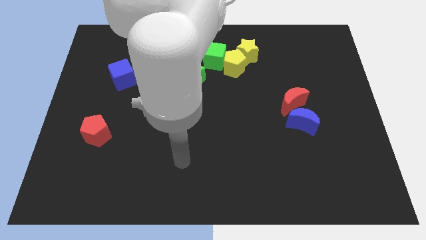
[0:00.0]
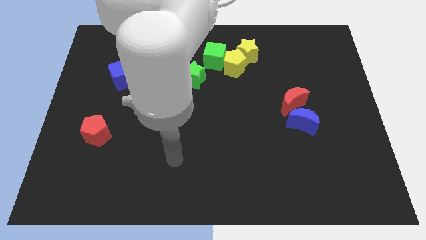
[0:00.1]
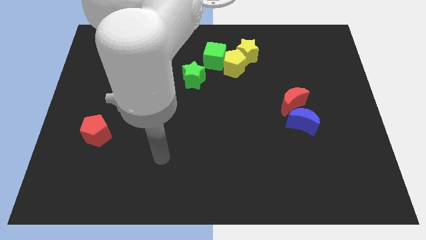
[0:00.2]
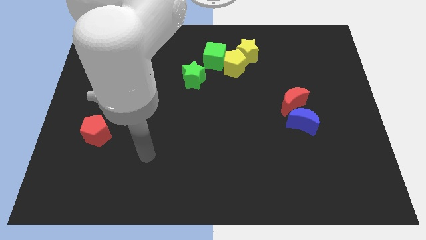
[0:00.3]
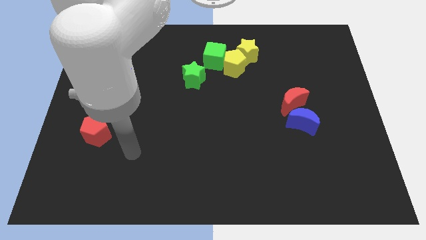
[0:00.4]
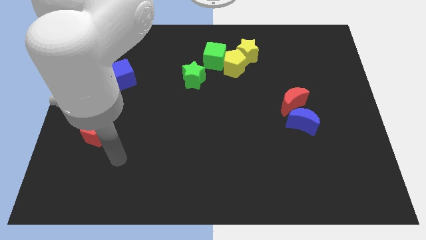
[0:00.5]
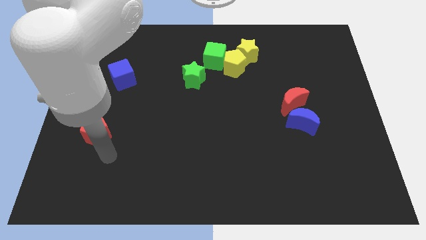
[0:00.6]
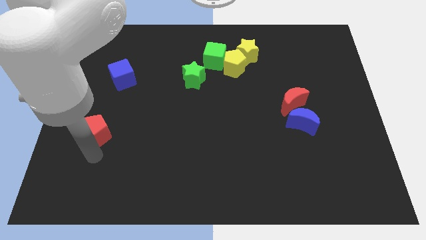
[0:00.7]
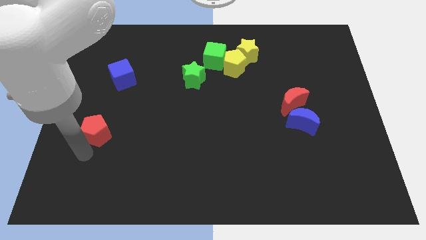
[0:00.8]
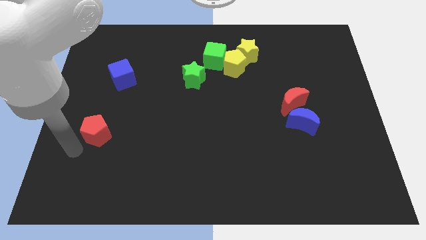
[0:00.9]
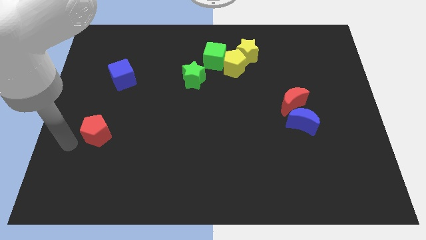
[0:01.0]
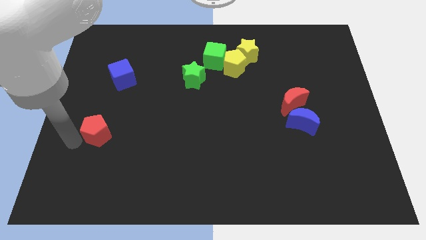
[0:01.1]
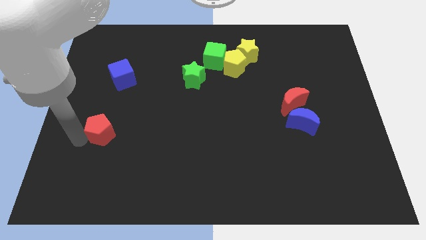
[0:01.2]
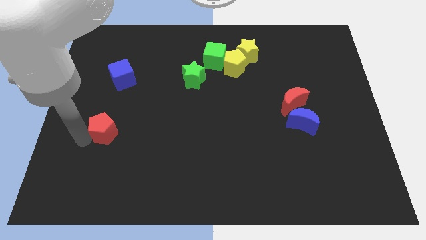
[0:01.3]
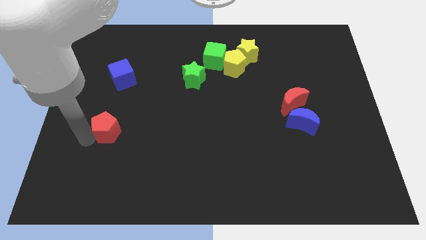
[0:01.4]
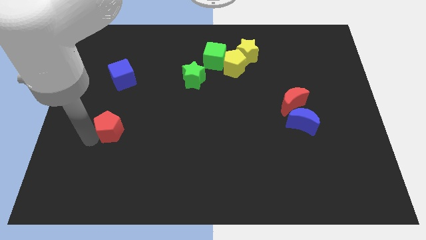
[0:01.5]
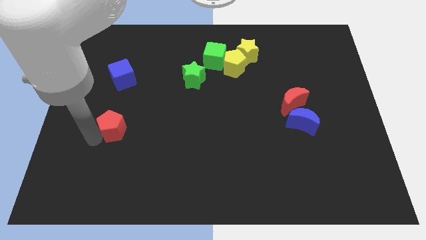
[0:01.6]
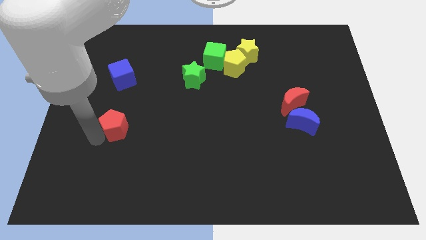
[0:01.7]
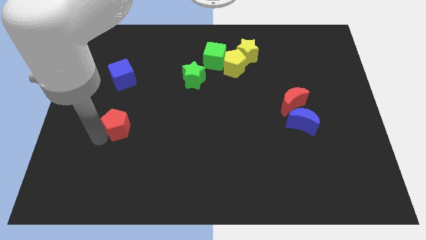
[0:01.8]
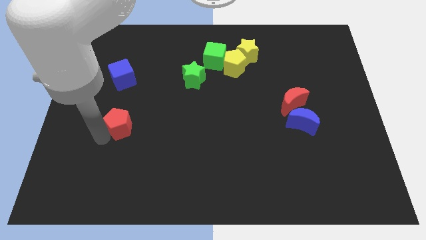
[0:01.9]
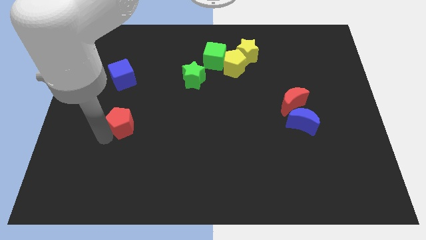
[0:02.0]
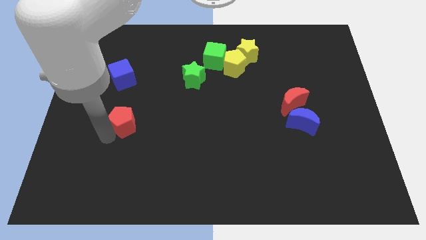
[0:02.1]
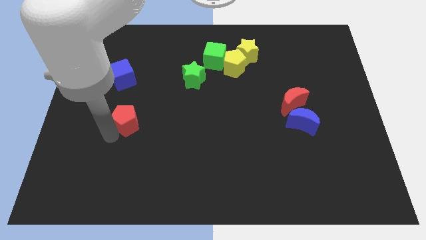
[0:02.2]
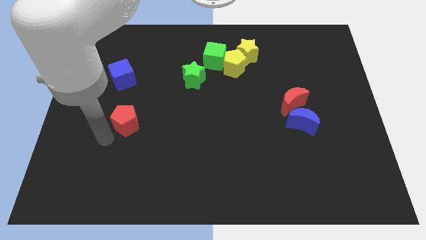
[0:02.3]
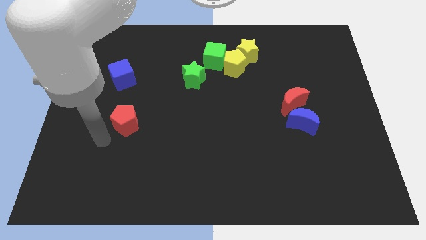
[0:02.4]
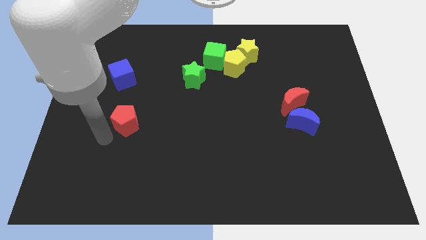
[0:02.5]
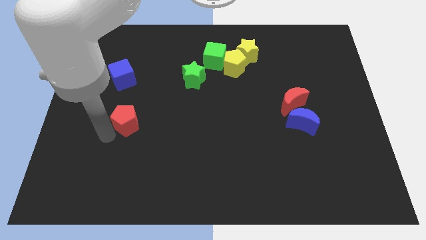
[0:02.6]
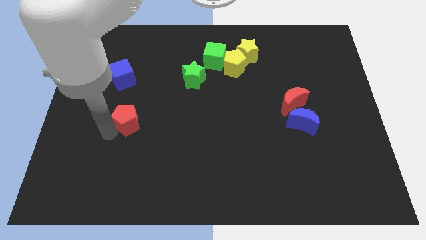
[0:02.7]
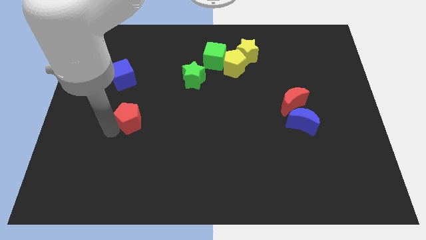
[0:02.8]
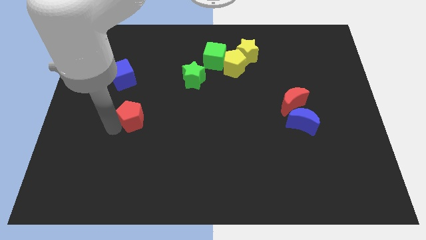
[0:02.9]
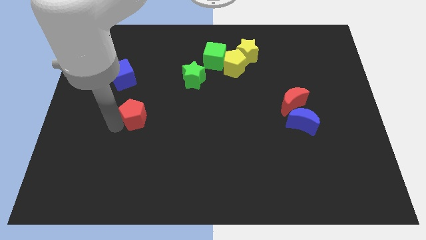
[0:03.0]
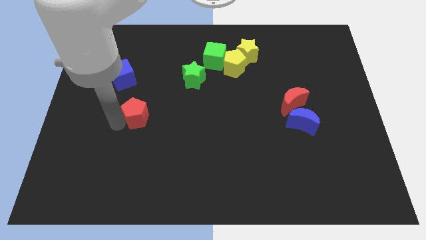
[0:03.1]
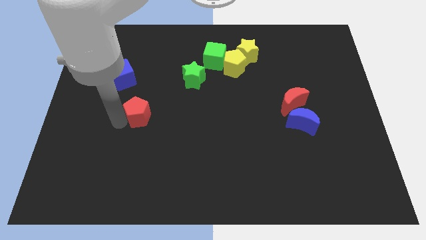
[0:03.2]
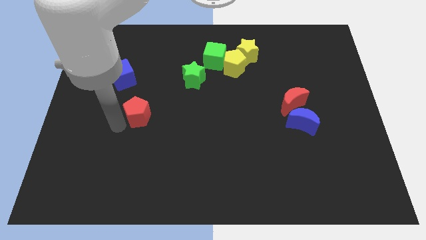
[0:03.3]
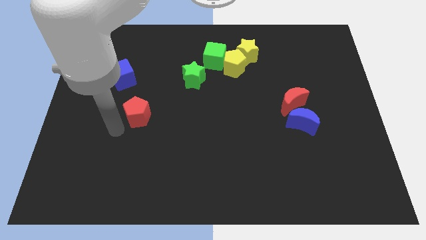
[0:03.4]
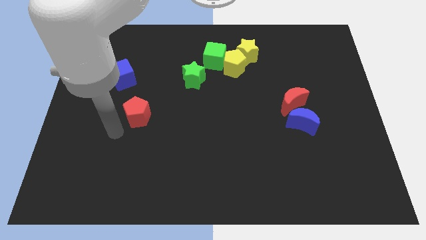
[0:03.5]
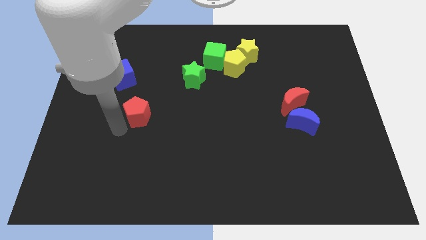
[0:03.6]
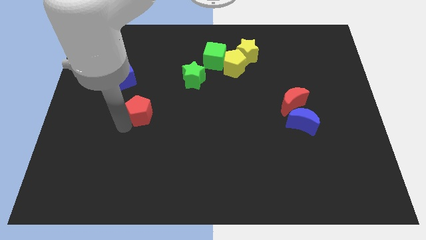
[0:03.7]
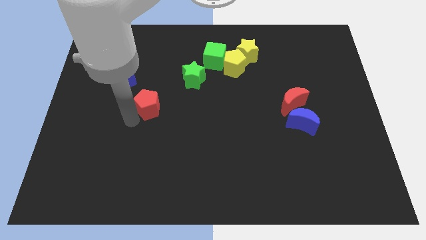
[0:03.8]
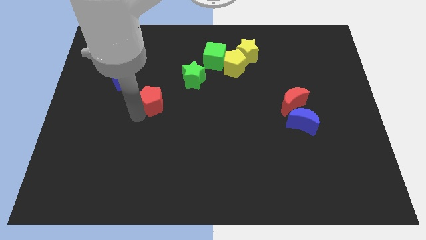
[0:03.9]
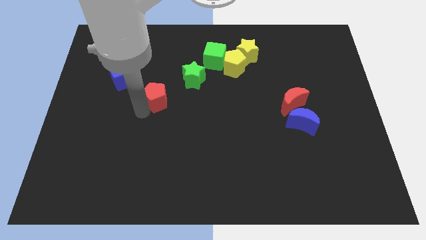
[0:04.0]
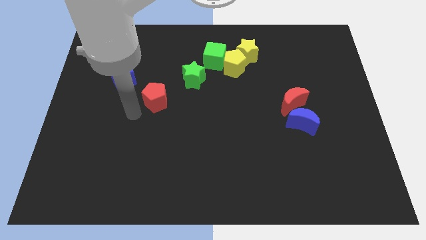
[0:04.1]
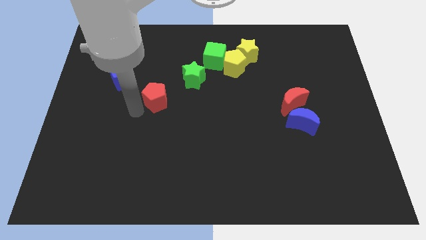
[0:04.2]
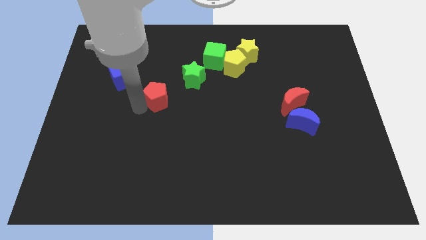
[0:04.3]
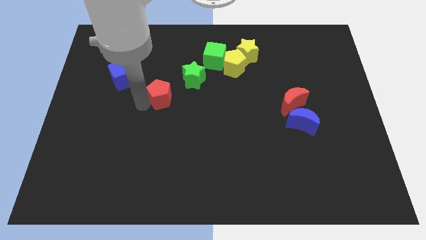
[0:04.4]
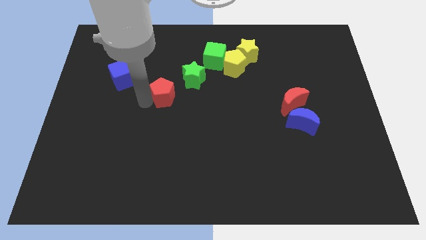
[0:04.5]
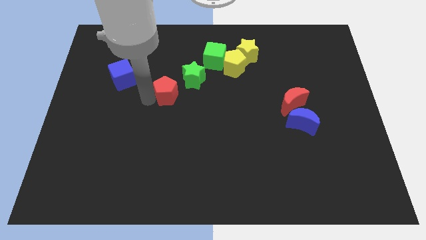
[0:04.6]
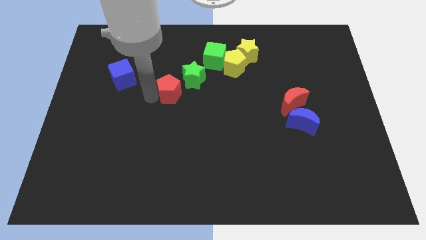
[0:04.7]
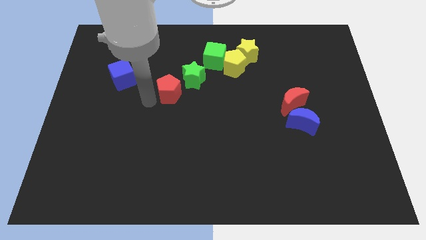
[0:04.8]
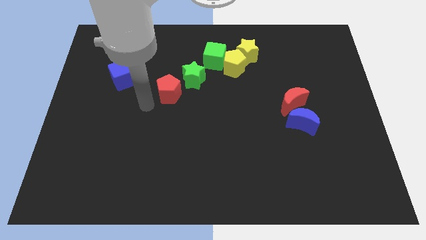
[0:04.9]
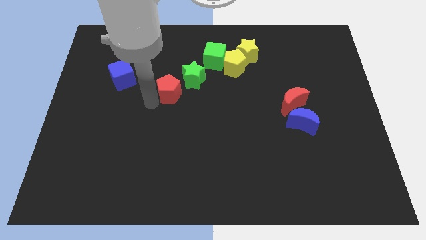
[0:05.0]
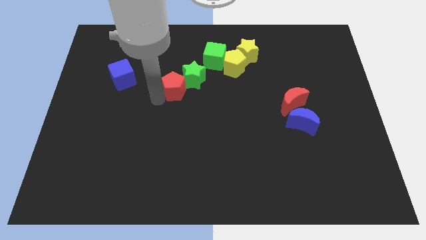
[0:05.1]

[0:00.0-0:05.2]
put the red pentagon towards the green star

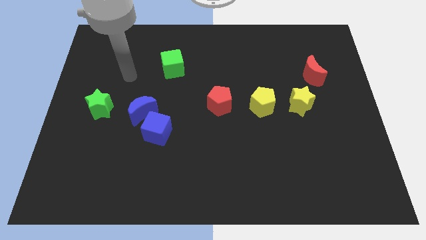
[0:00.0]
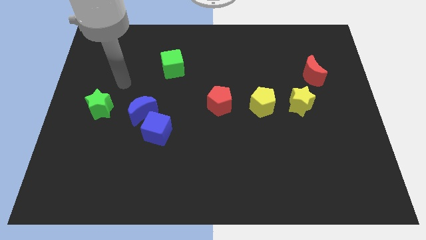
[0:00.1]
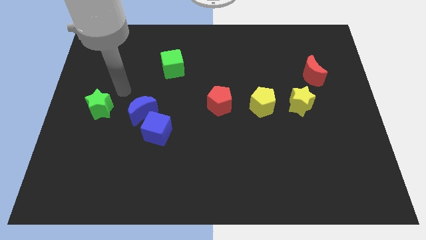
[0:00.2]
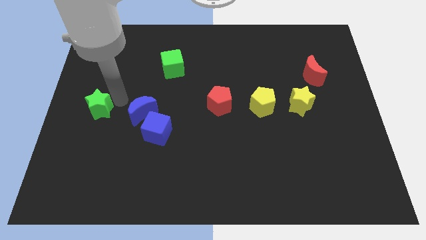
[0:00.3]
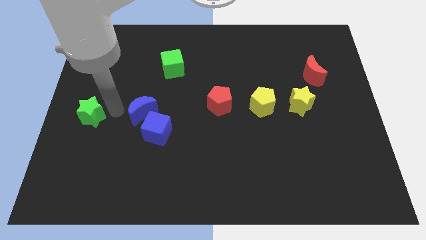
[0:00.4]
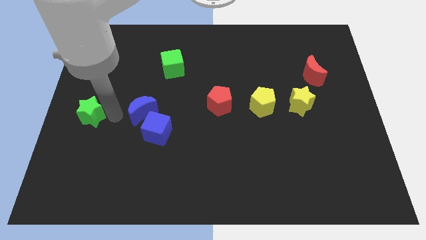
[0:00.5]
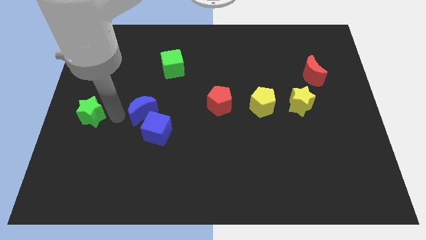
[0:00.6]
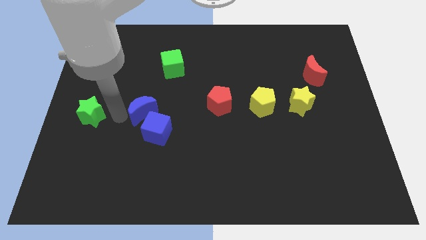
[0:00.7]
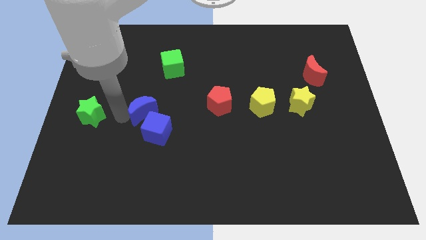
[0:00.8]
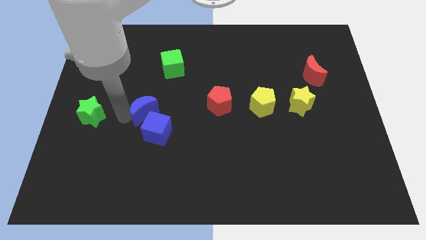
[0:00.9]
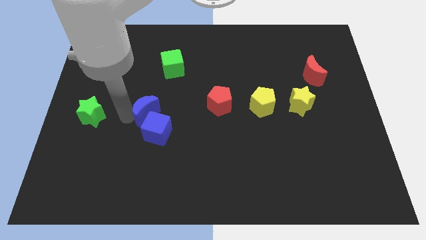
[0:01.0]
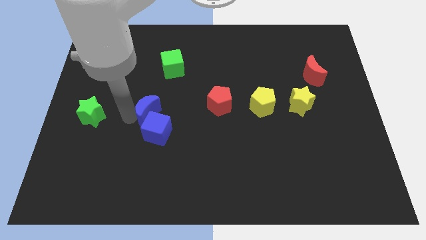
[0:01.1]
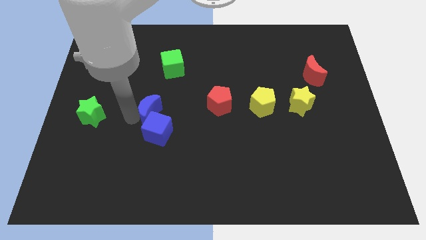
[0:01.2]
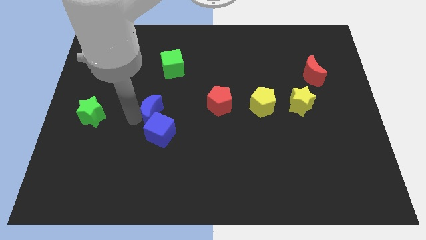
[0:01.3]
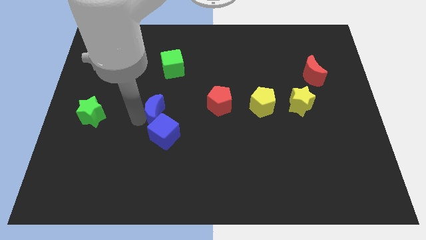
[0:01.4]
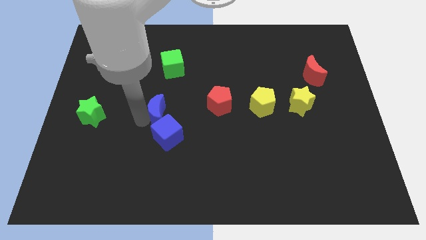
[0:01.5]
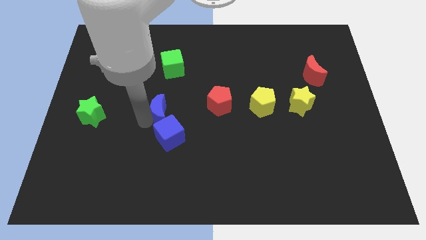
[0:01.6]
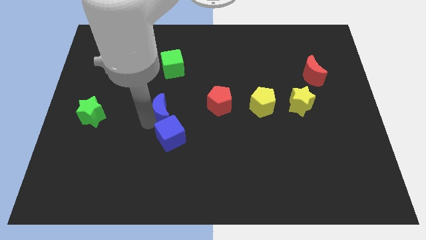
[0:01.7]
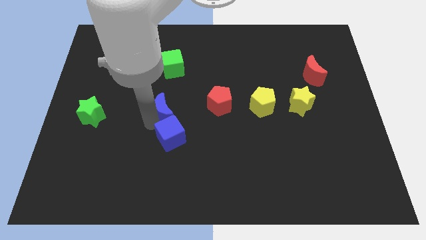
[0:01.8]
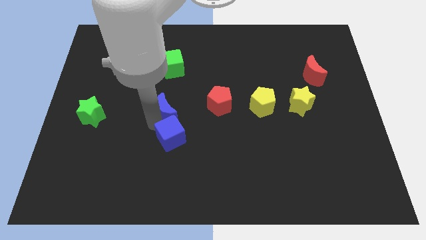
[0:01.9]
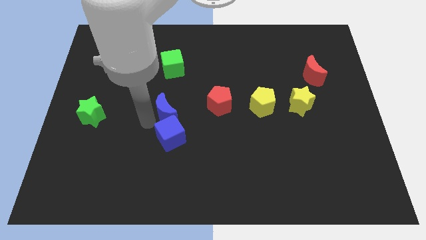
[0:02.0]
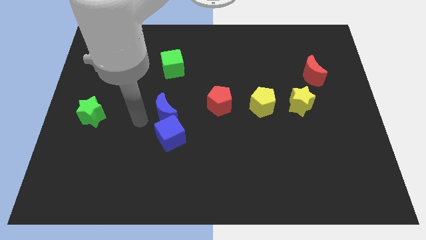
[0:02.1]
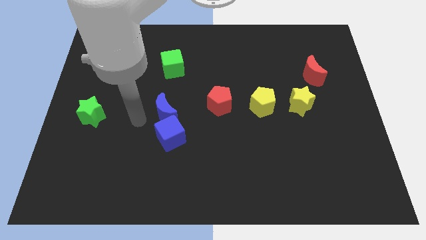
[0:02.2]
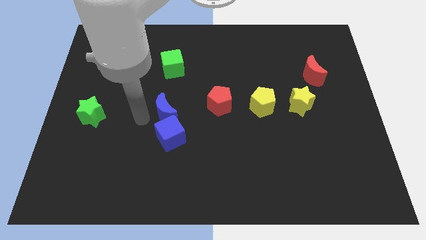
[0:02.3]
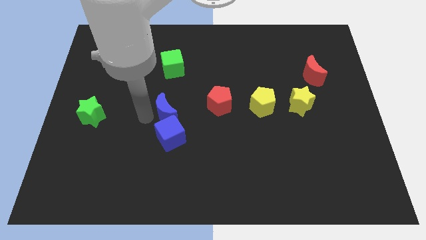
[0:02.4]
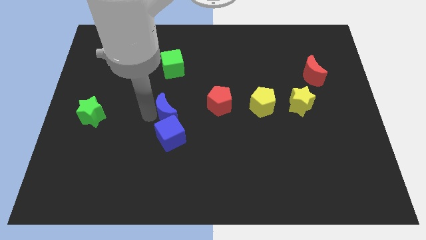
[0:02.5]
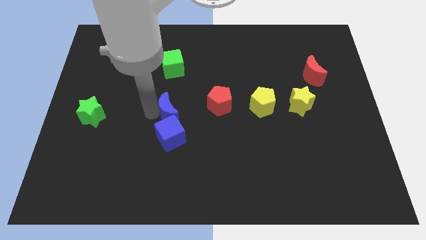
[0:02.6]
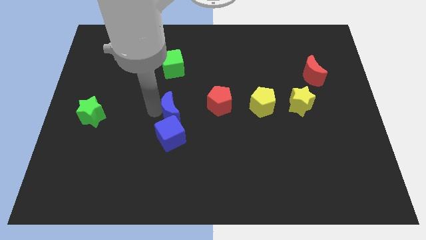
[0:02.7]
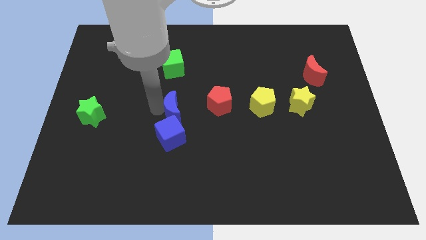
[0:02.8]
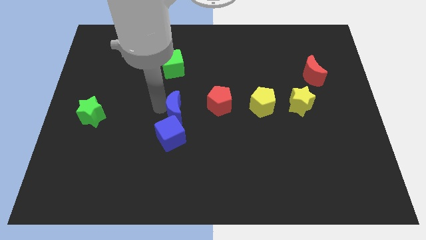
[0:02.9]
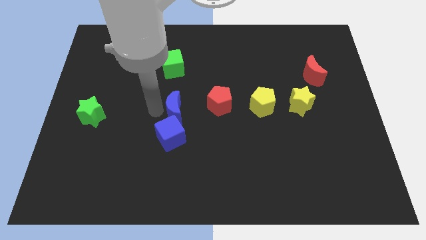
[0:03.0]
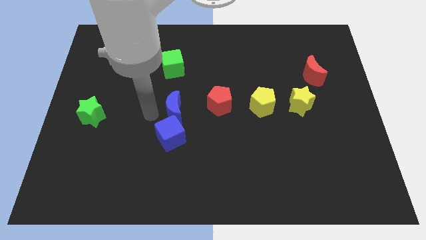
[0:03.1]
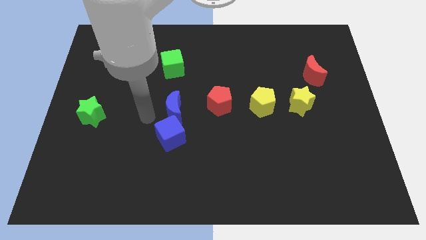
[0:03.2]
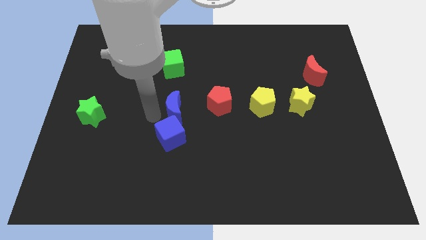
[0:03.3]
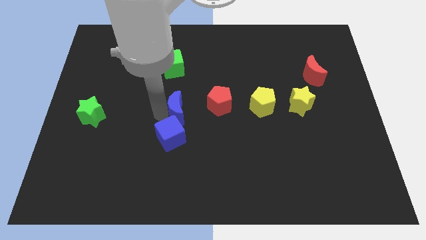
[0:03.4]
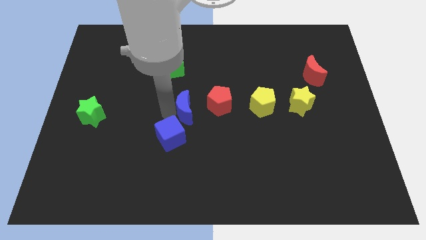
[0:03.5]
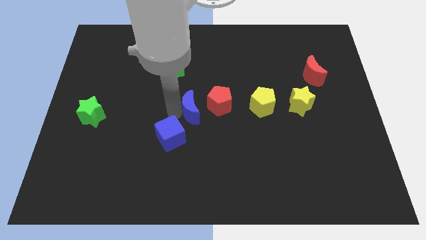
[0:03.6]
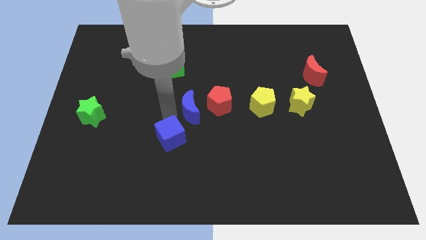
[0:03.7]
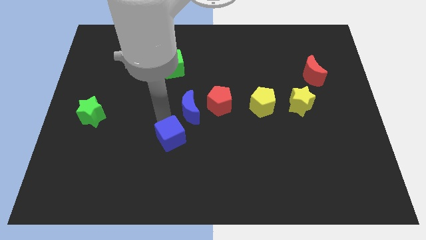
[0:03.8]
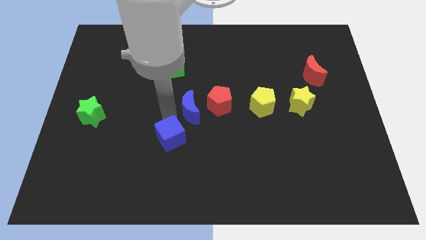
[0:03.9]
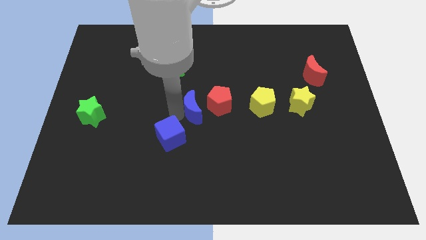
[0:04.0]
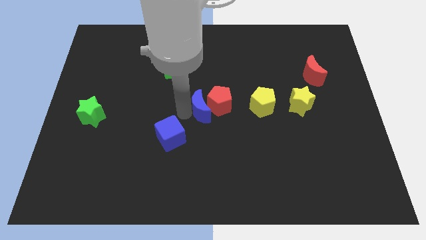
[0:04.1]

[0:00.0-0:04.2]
push the blue moon close to the red pentagon
